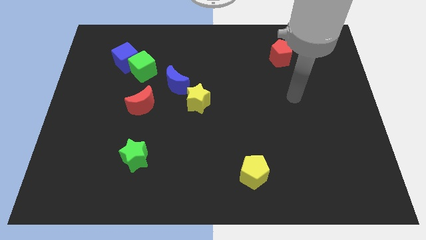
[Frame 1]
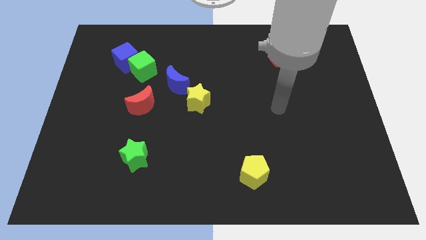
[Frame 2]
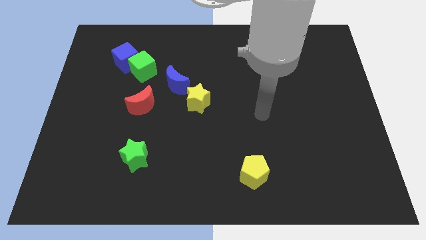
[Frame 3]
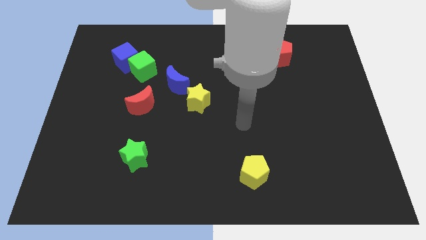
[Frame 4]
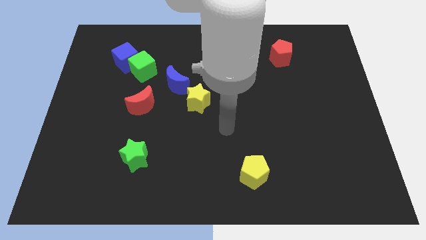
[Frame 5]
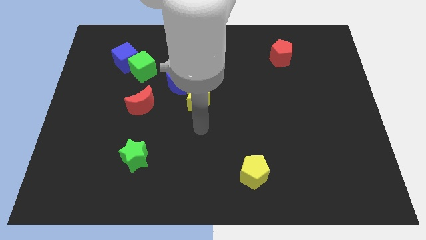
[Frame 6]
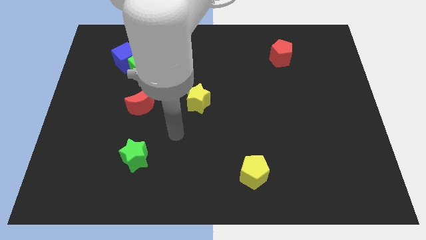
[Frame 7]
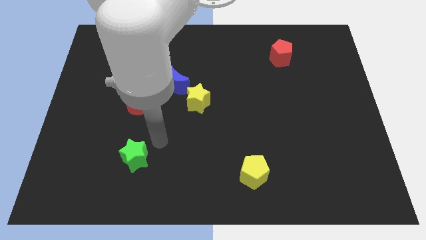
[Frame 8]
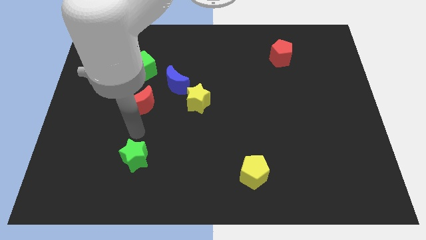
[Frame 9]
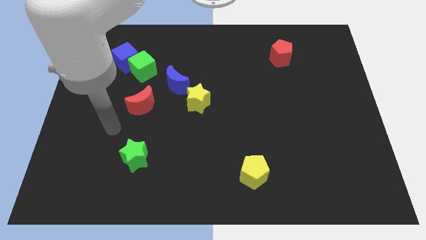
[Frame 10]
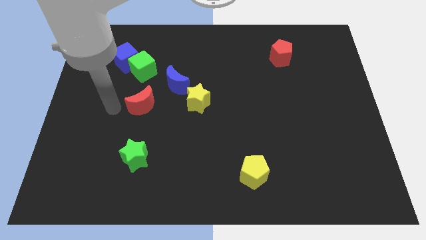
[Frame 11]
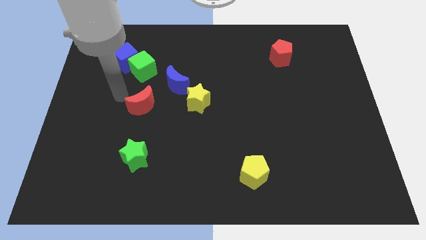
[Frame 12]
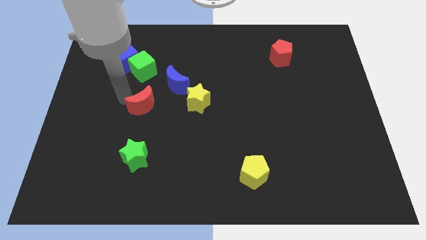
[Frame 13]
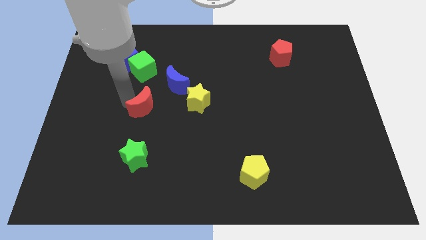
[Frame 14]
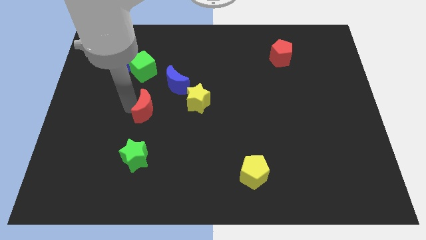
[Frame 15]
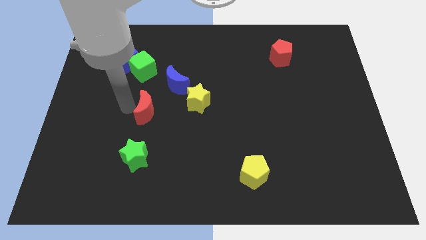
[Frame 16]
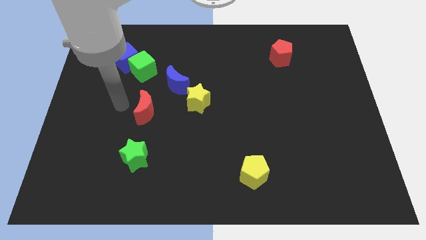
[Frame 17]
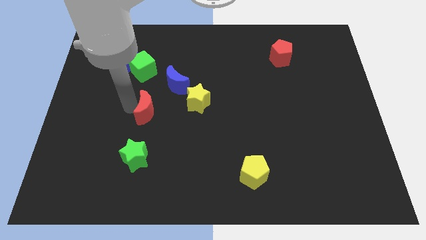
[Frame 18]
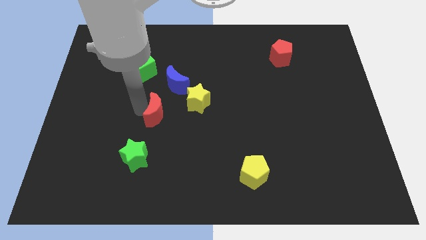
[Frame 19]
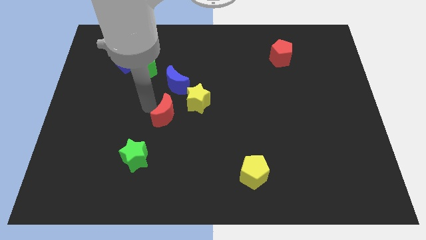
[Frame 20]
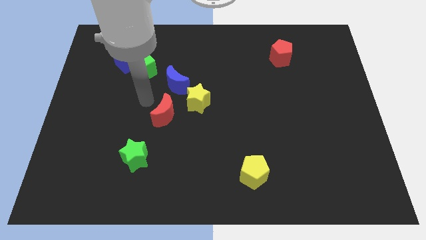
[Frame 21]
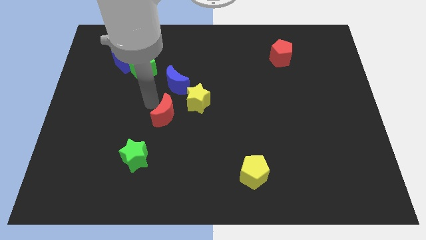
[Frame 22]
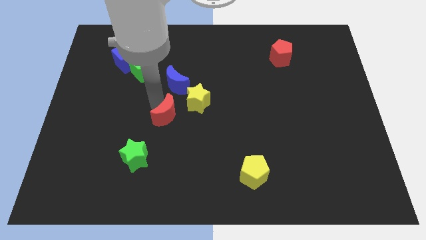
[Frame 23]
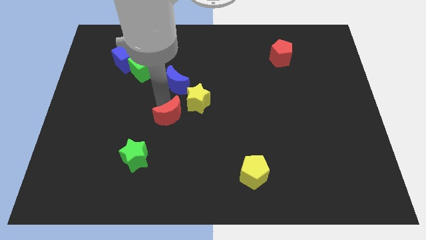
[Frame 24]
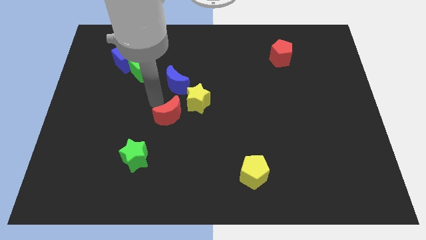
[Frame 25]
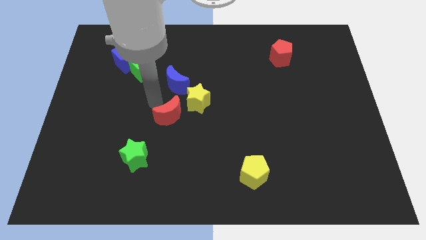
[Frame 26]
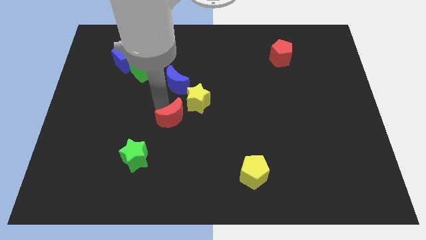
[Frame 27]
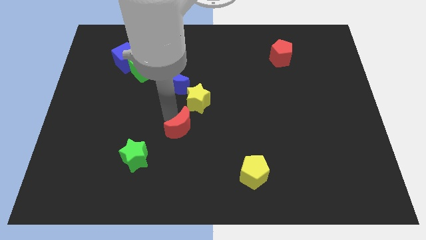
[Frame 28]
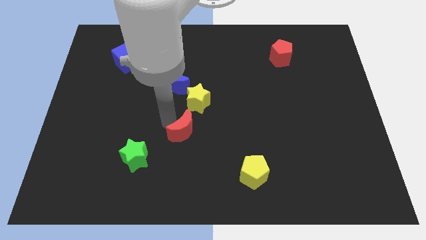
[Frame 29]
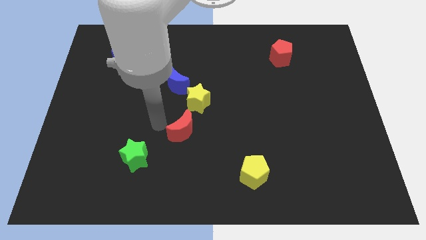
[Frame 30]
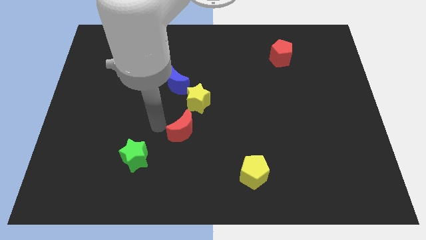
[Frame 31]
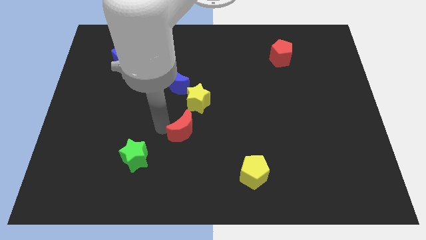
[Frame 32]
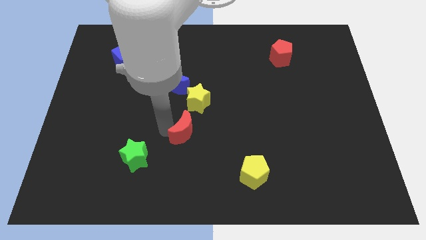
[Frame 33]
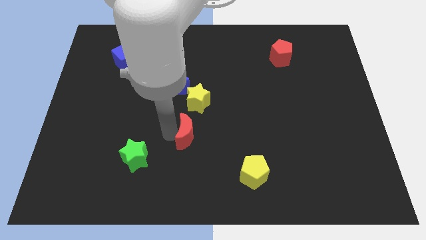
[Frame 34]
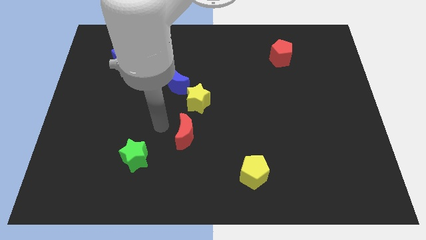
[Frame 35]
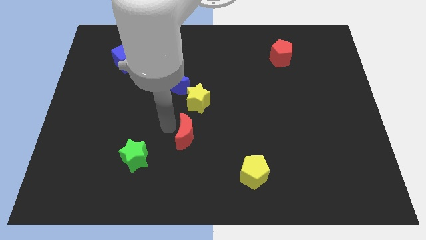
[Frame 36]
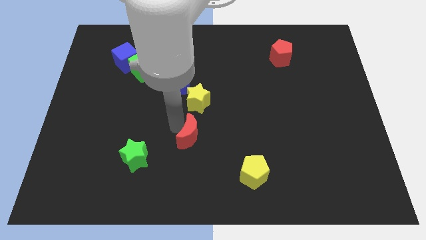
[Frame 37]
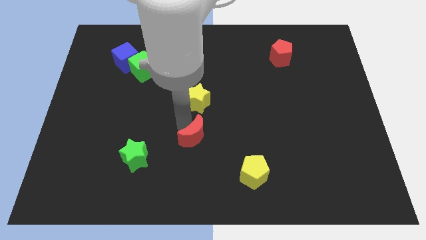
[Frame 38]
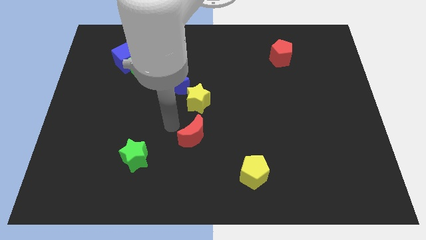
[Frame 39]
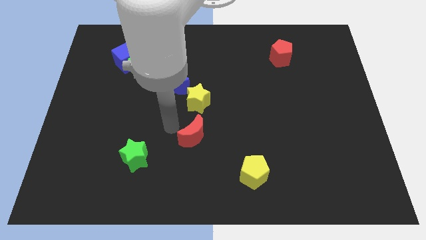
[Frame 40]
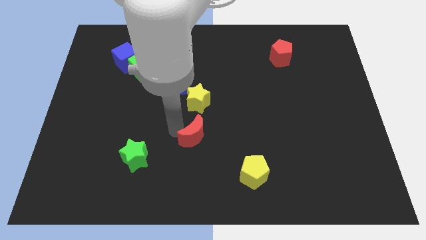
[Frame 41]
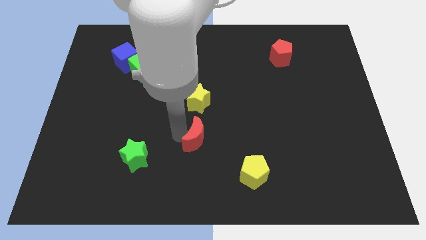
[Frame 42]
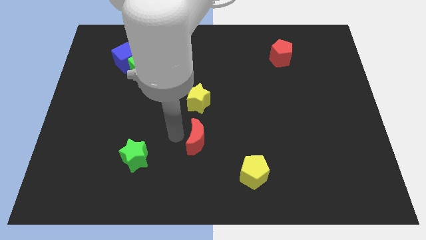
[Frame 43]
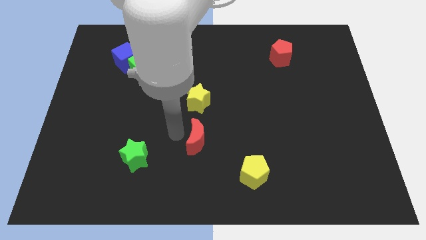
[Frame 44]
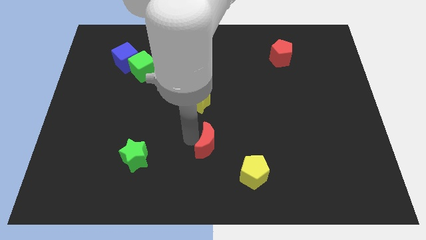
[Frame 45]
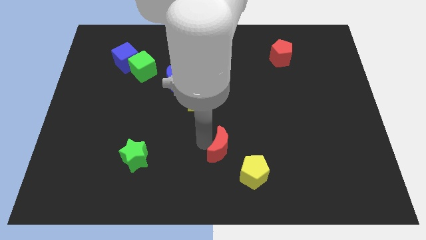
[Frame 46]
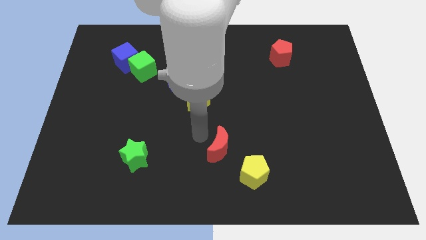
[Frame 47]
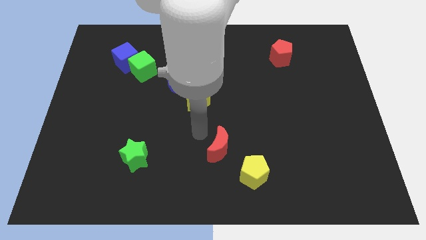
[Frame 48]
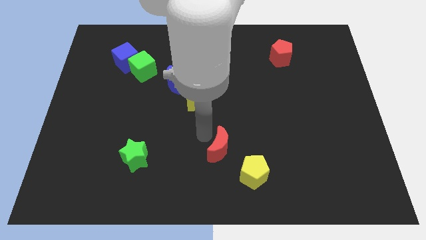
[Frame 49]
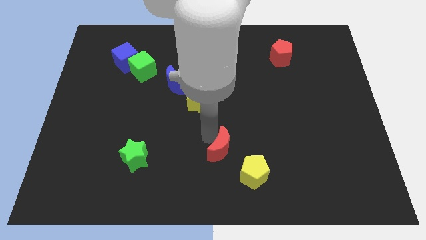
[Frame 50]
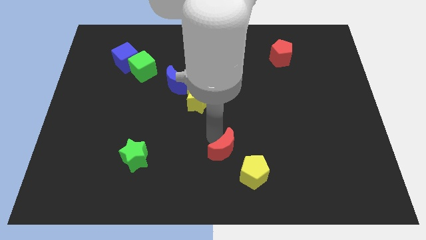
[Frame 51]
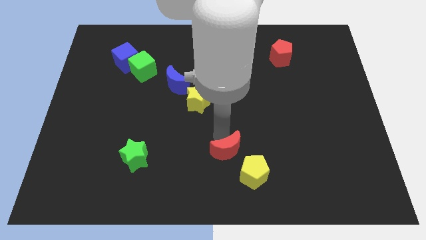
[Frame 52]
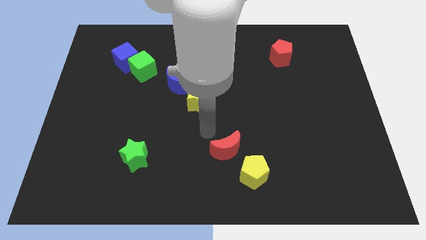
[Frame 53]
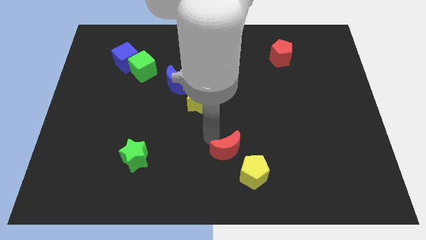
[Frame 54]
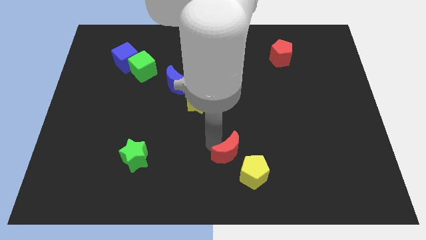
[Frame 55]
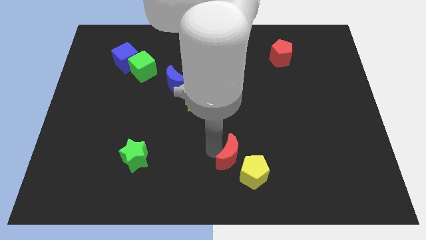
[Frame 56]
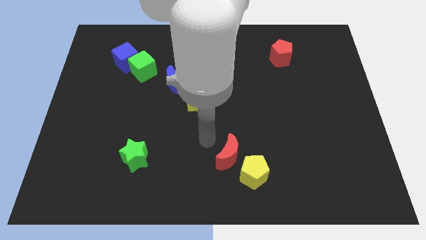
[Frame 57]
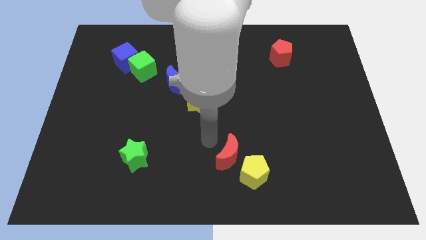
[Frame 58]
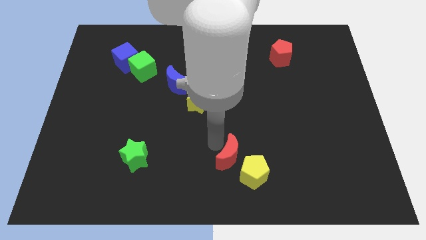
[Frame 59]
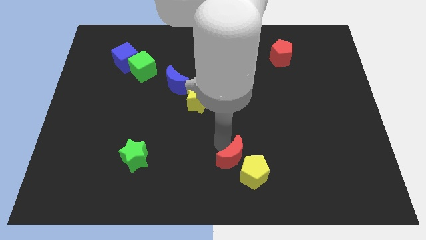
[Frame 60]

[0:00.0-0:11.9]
push the red moon close to the yellow pentagon

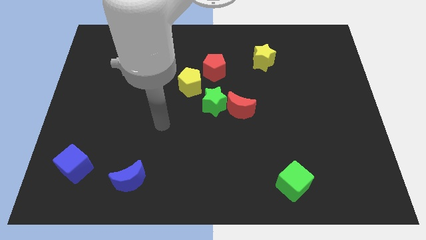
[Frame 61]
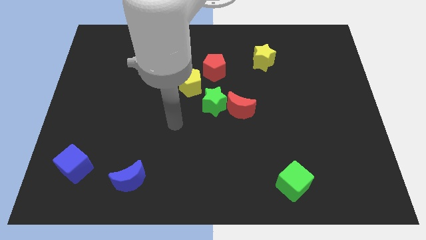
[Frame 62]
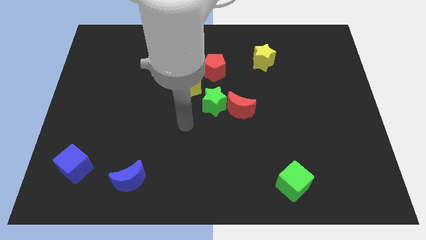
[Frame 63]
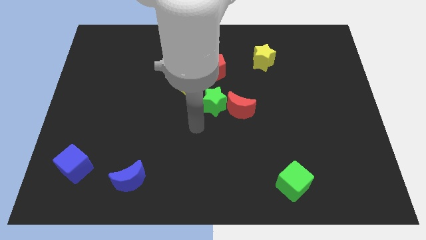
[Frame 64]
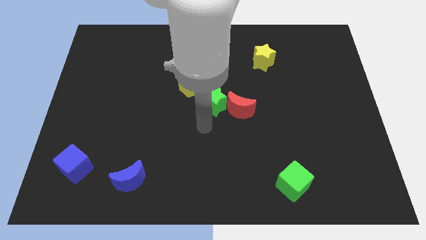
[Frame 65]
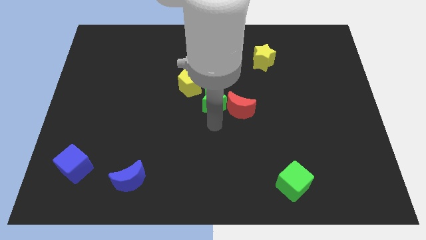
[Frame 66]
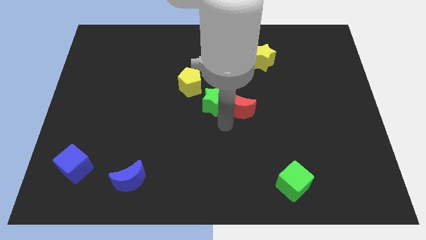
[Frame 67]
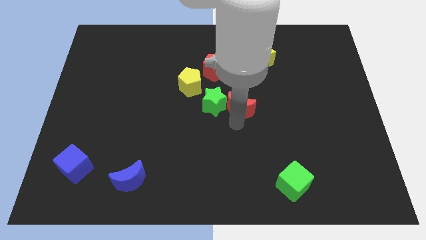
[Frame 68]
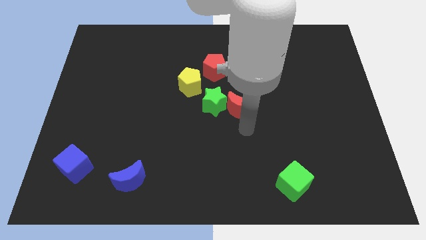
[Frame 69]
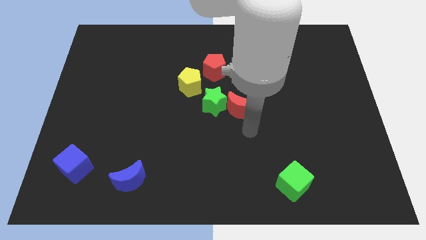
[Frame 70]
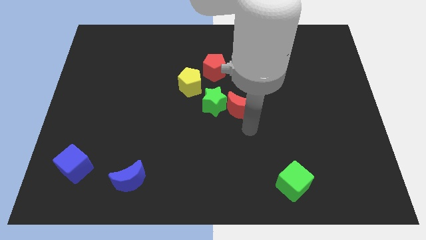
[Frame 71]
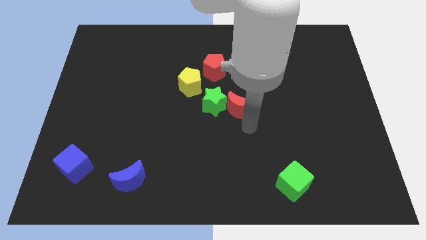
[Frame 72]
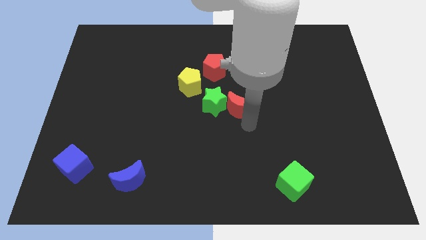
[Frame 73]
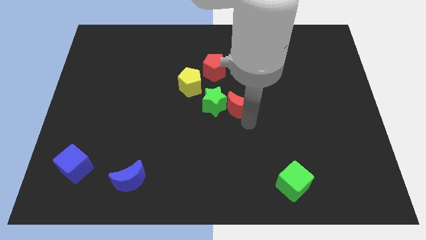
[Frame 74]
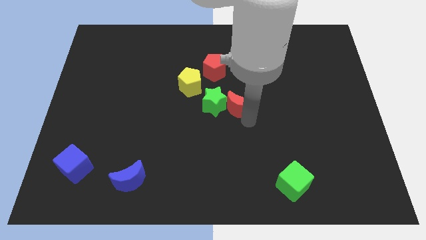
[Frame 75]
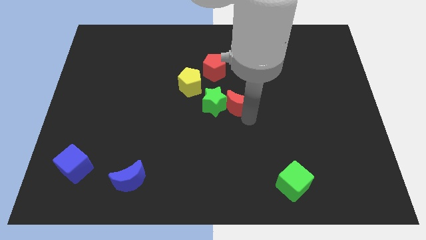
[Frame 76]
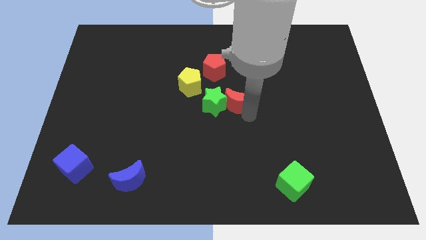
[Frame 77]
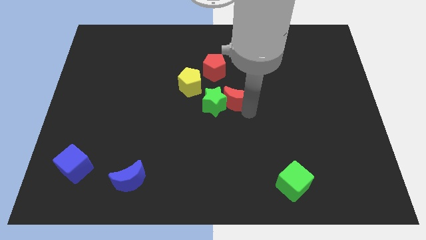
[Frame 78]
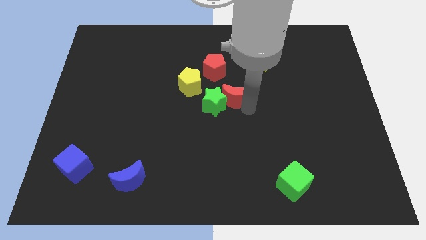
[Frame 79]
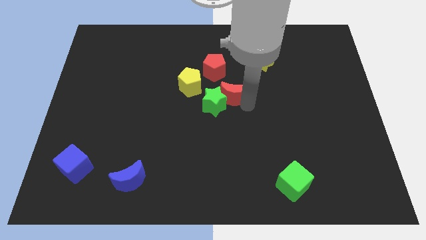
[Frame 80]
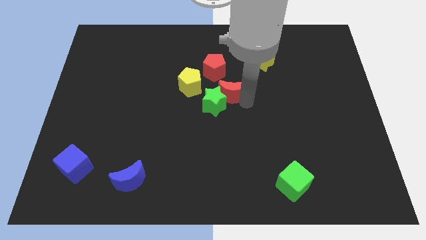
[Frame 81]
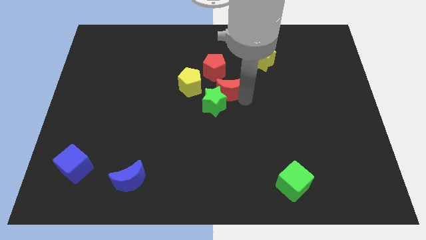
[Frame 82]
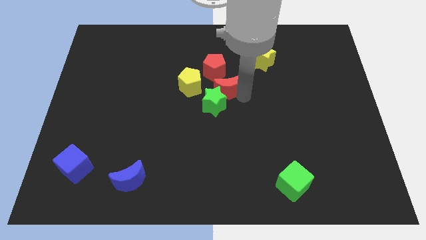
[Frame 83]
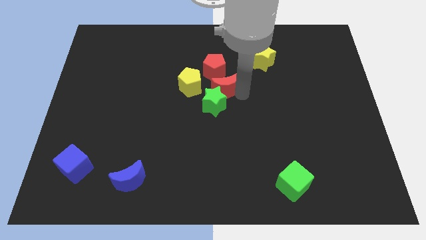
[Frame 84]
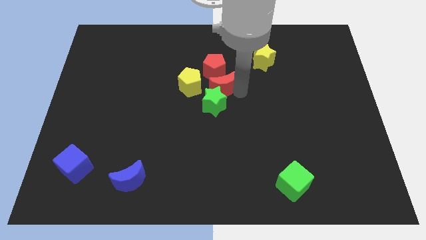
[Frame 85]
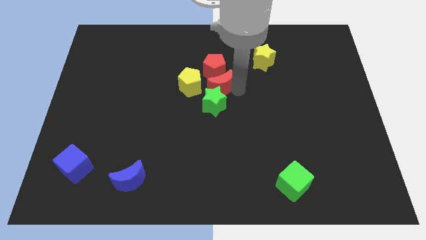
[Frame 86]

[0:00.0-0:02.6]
put the red moon next to the red pentagon

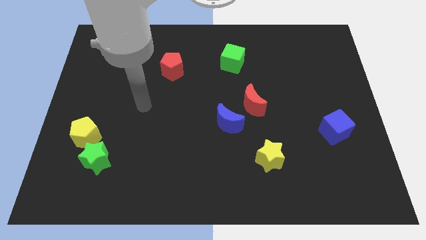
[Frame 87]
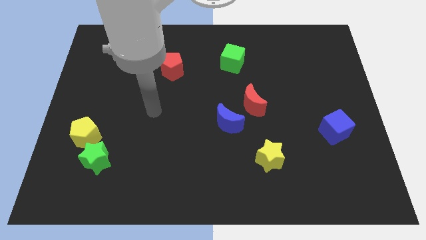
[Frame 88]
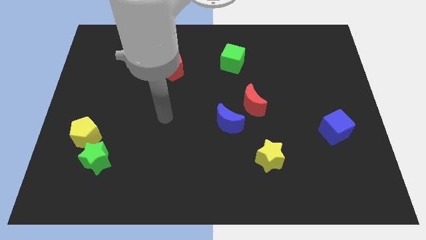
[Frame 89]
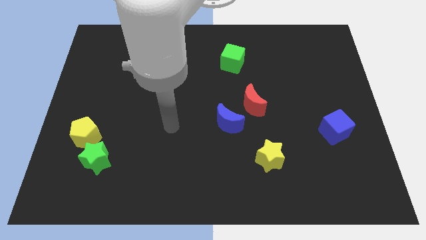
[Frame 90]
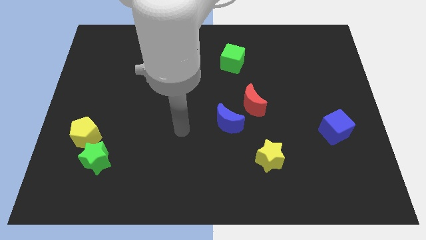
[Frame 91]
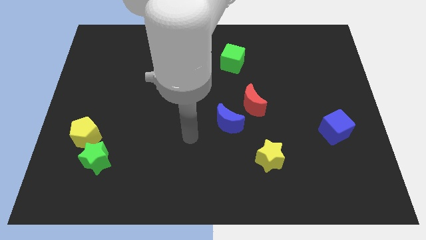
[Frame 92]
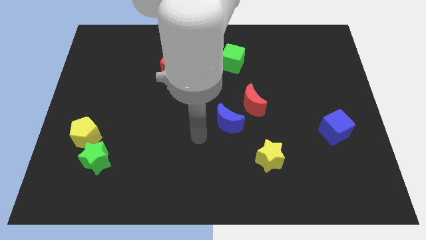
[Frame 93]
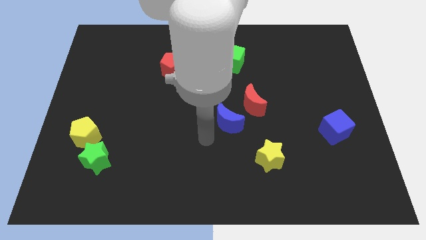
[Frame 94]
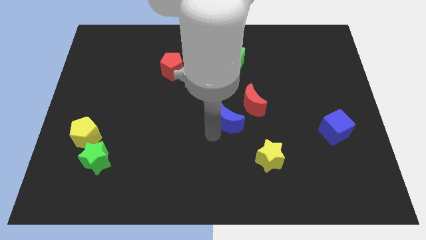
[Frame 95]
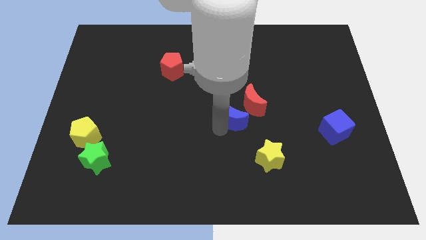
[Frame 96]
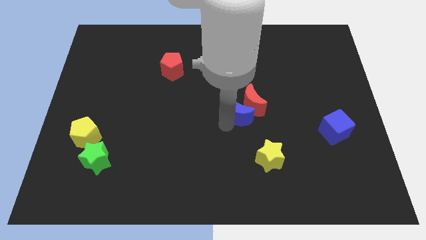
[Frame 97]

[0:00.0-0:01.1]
move the blue moon close to the red moon
